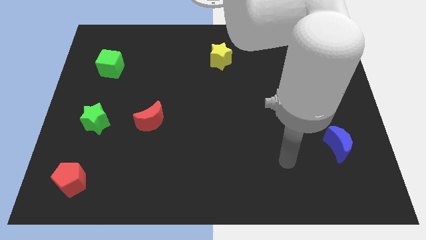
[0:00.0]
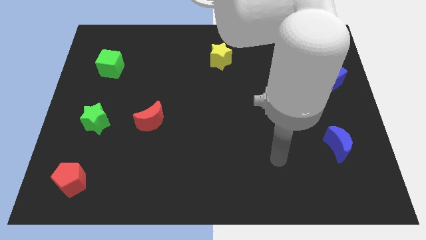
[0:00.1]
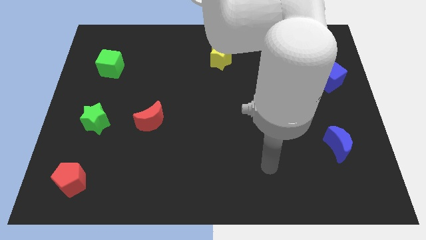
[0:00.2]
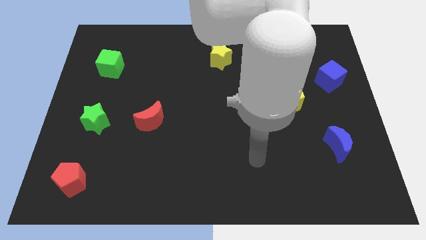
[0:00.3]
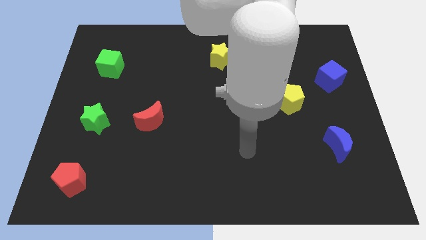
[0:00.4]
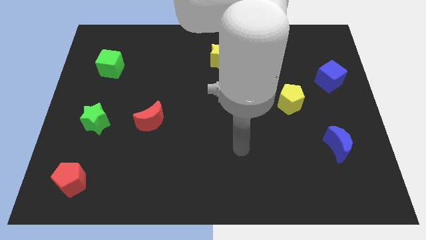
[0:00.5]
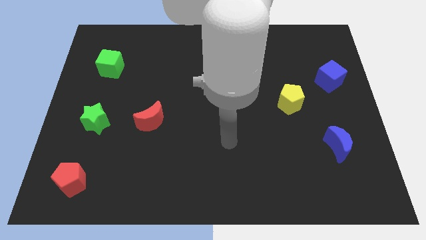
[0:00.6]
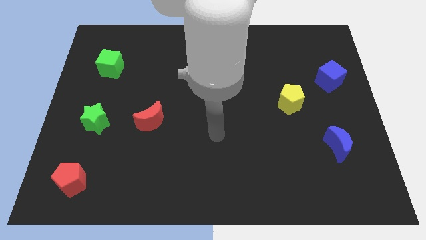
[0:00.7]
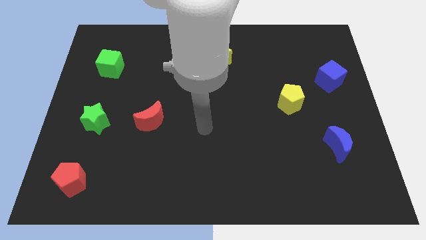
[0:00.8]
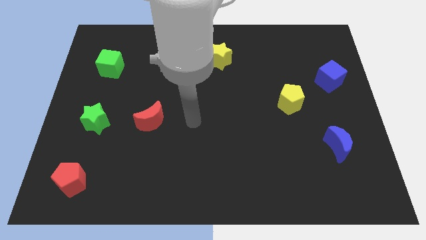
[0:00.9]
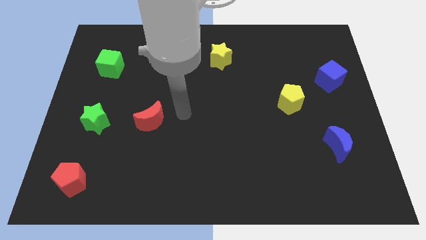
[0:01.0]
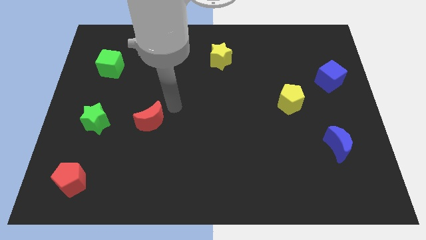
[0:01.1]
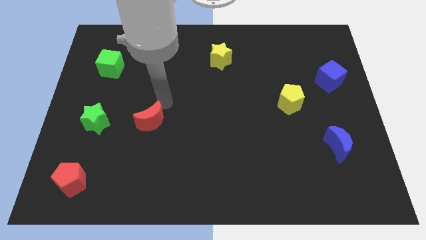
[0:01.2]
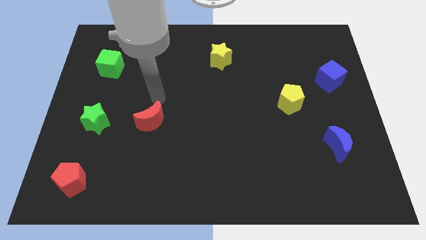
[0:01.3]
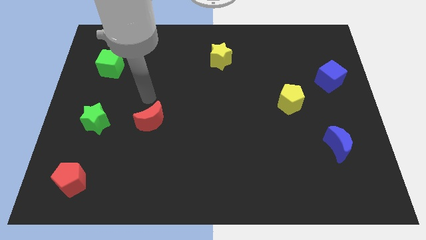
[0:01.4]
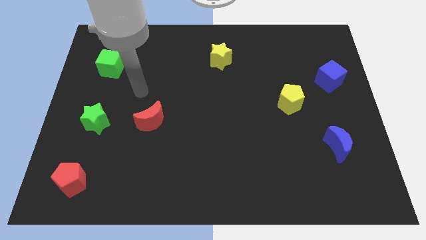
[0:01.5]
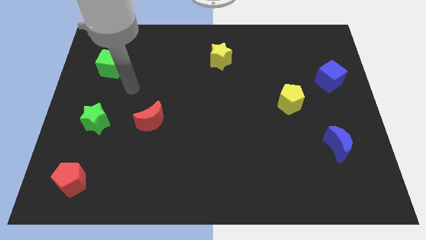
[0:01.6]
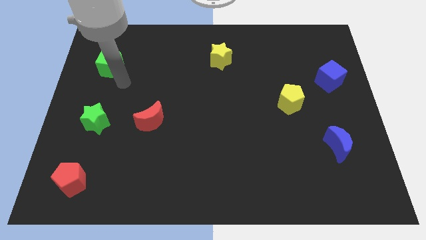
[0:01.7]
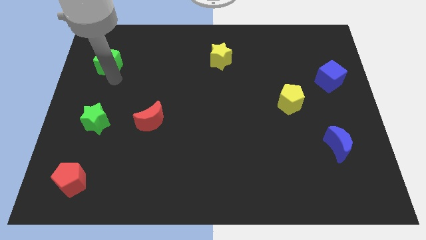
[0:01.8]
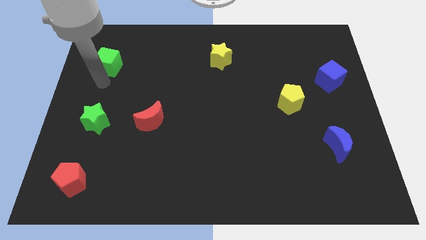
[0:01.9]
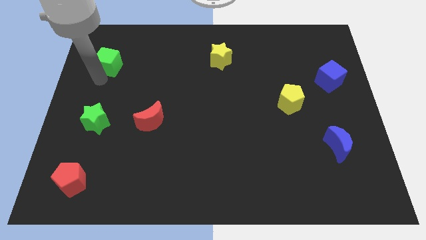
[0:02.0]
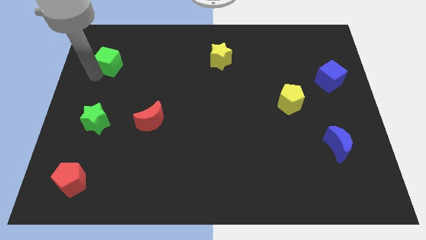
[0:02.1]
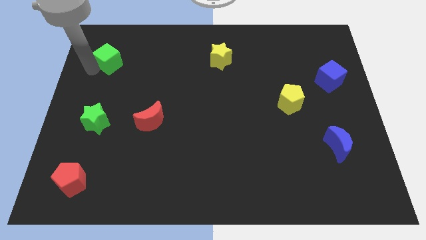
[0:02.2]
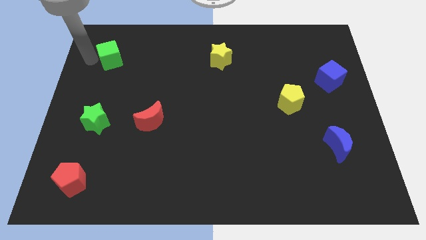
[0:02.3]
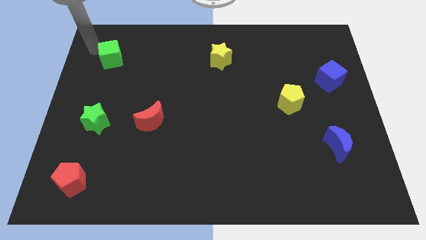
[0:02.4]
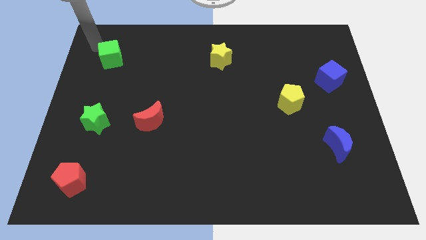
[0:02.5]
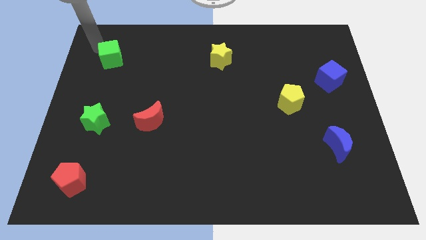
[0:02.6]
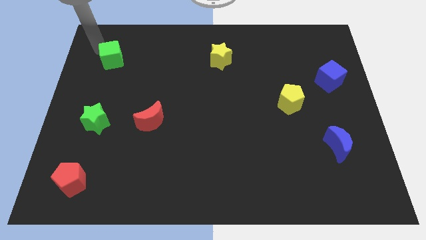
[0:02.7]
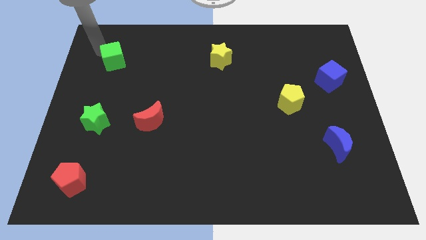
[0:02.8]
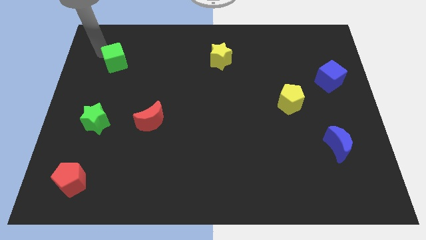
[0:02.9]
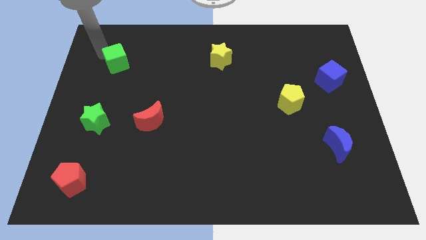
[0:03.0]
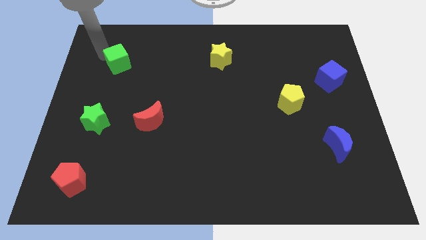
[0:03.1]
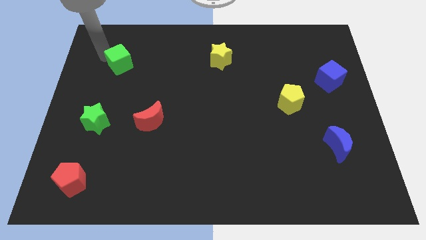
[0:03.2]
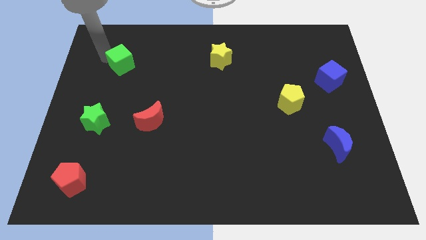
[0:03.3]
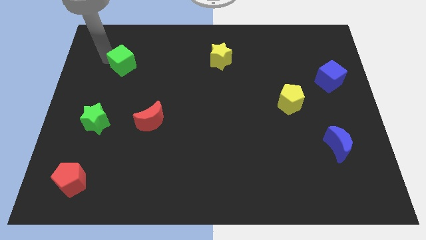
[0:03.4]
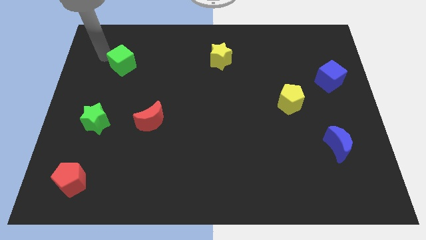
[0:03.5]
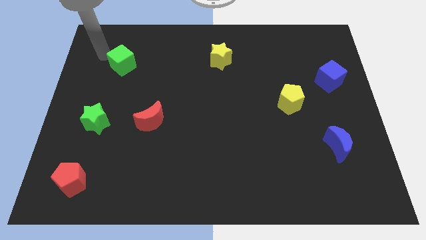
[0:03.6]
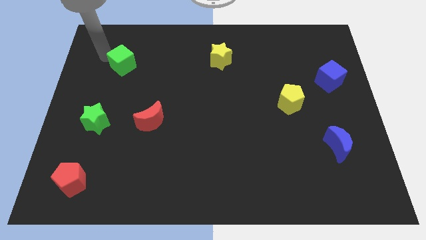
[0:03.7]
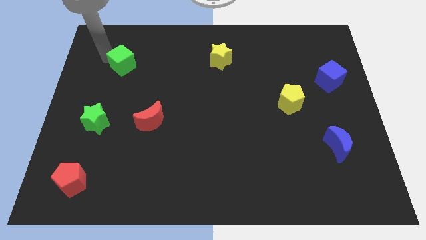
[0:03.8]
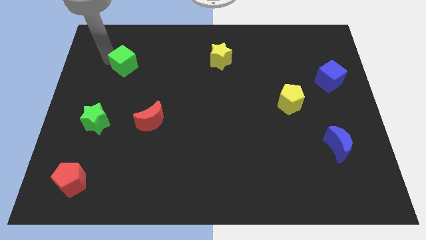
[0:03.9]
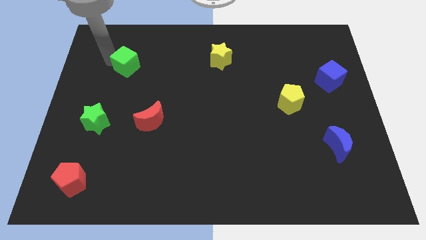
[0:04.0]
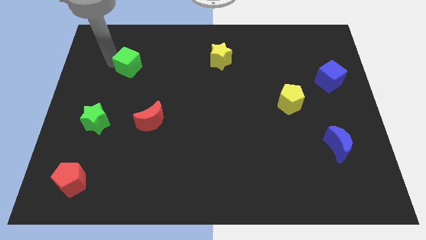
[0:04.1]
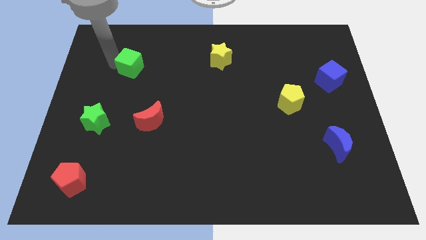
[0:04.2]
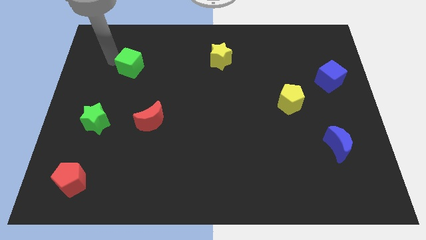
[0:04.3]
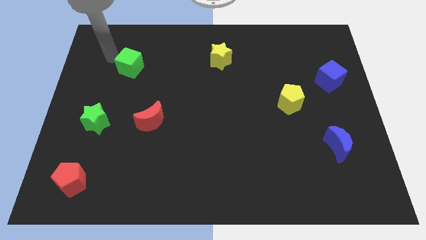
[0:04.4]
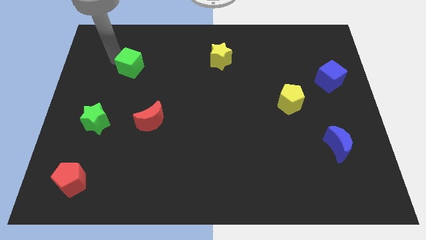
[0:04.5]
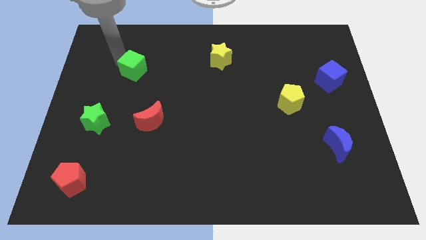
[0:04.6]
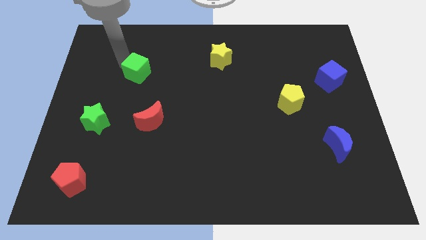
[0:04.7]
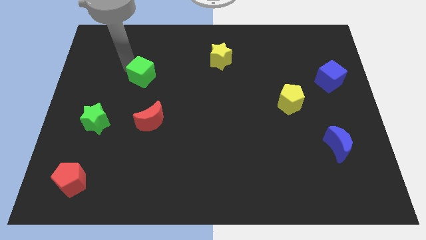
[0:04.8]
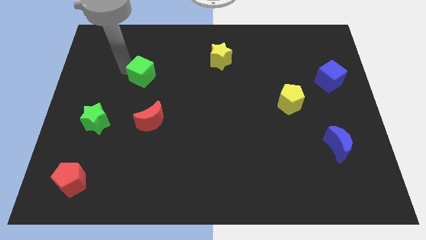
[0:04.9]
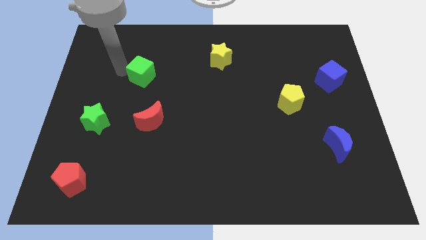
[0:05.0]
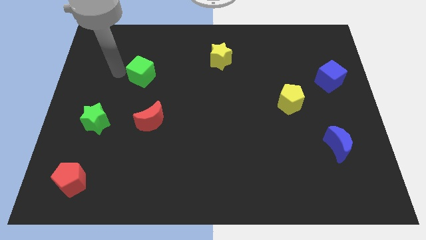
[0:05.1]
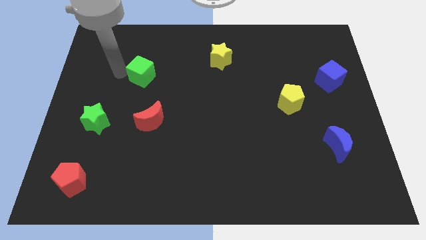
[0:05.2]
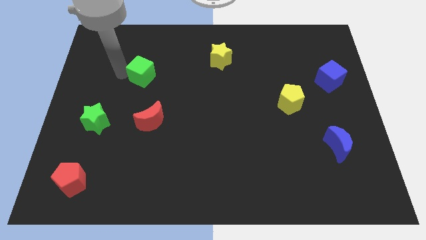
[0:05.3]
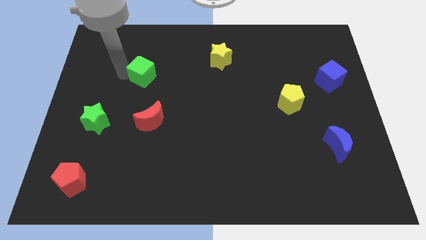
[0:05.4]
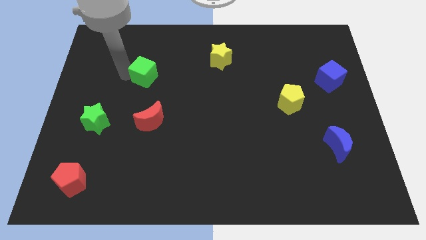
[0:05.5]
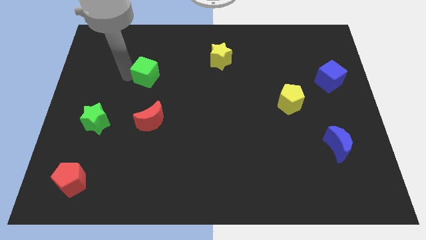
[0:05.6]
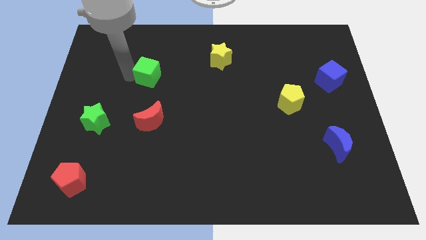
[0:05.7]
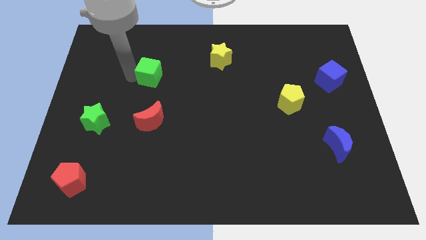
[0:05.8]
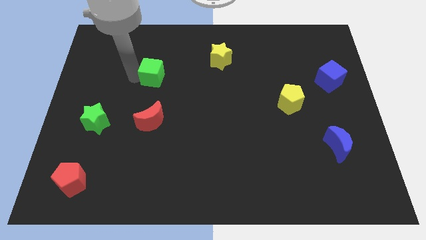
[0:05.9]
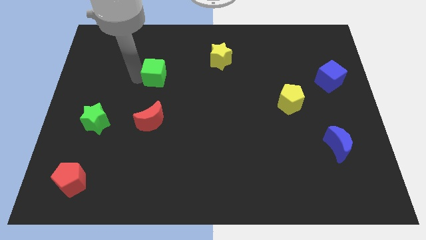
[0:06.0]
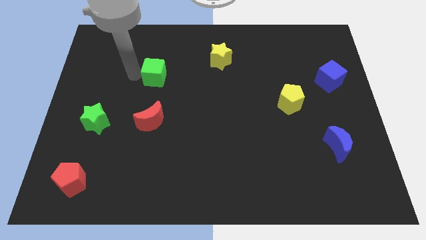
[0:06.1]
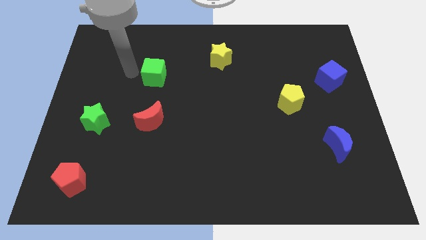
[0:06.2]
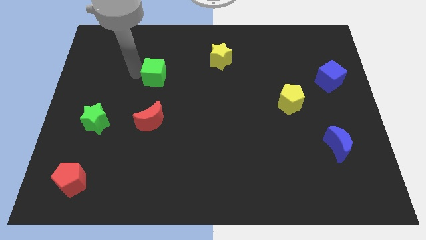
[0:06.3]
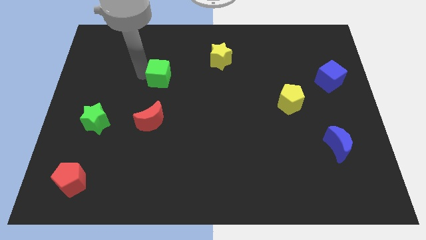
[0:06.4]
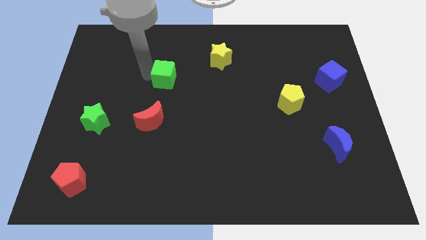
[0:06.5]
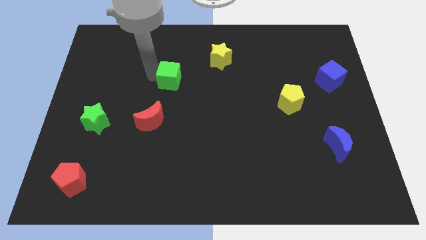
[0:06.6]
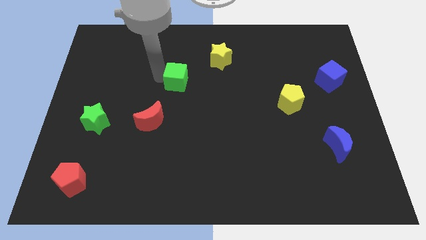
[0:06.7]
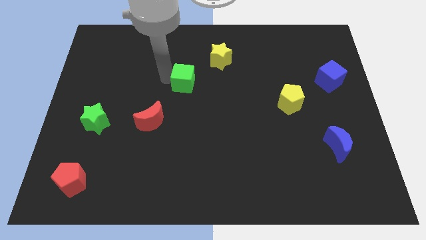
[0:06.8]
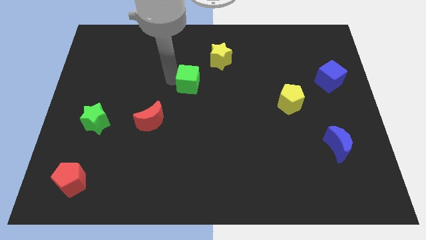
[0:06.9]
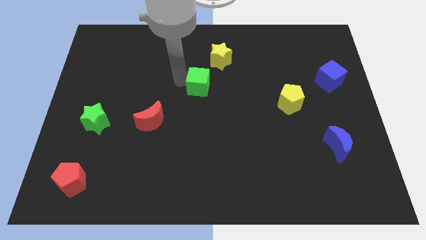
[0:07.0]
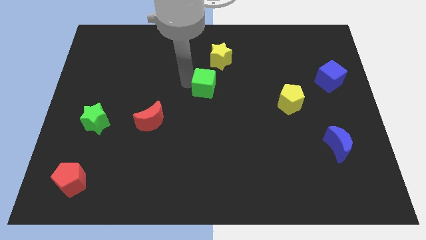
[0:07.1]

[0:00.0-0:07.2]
push the green cube to the bottom of the yellow star
